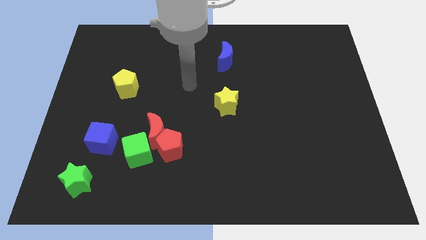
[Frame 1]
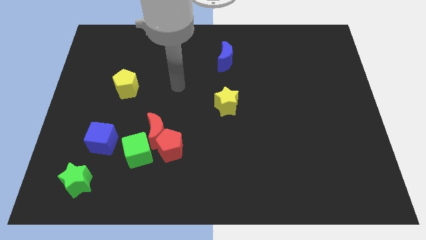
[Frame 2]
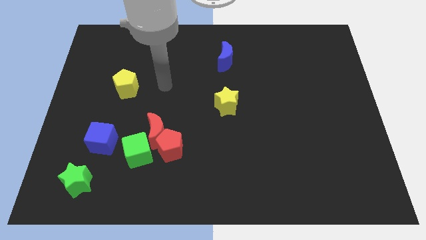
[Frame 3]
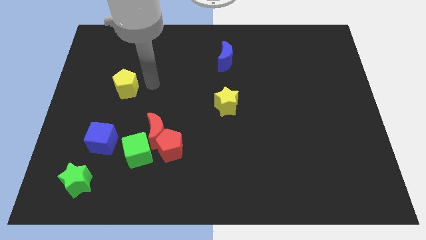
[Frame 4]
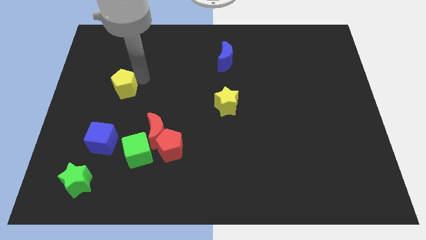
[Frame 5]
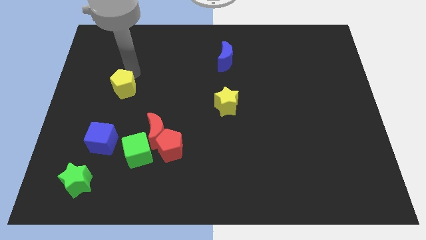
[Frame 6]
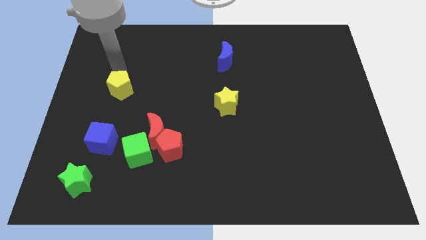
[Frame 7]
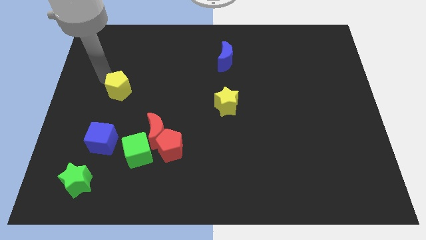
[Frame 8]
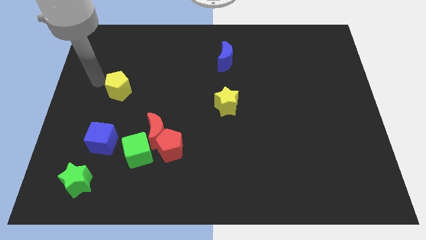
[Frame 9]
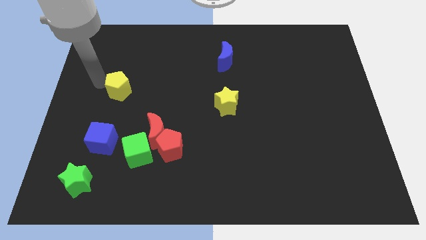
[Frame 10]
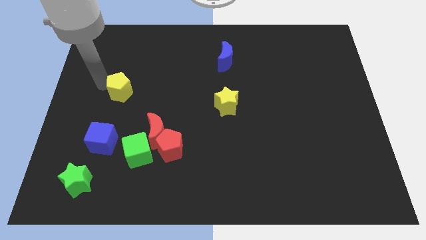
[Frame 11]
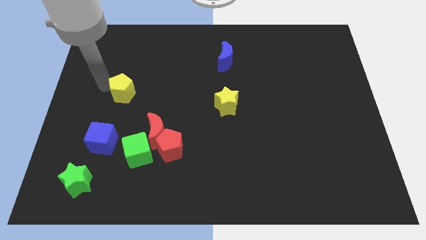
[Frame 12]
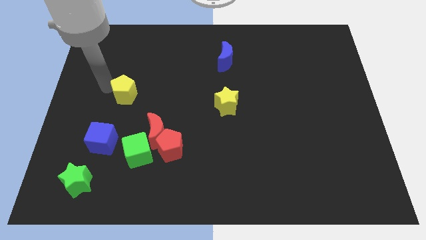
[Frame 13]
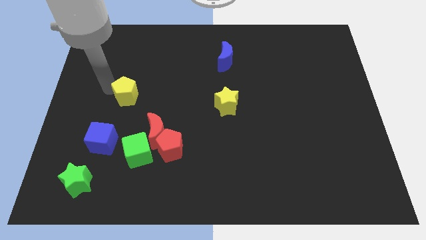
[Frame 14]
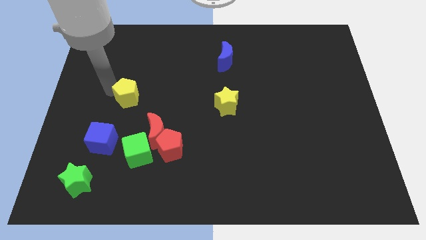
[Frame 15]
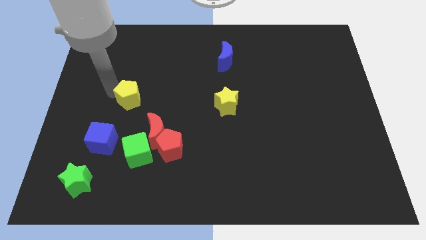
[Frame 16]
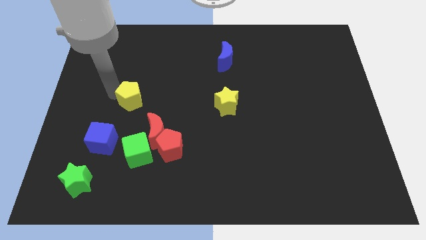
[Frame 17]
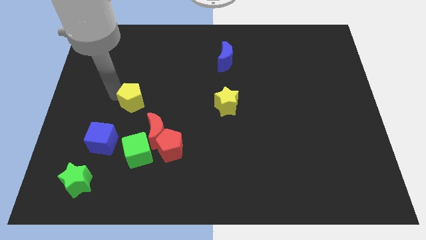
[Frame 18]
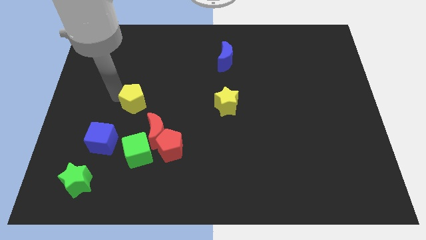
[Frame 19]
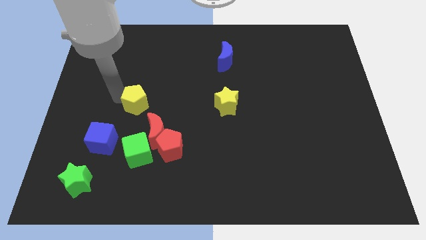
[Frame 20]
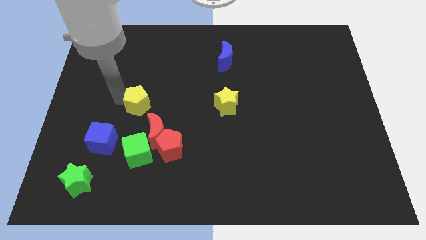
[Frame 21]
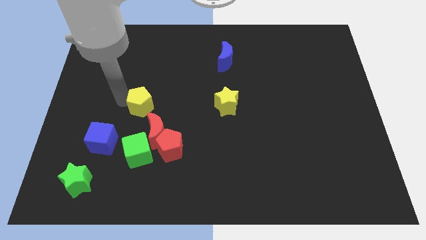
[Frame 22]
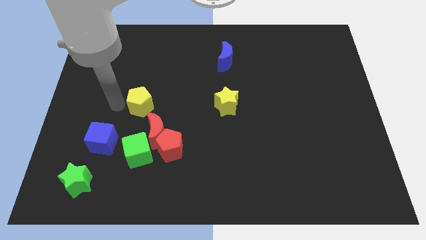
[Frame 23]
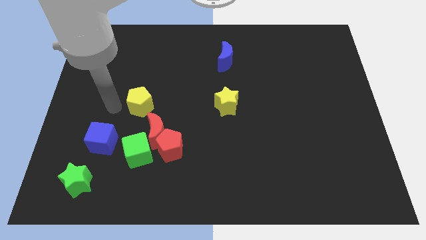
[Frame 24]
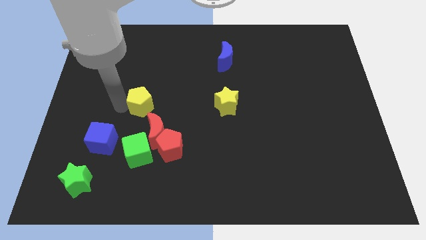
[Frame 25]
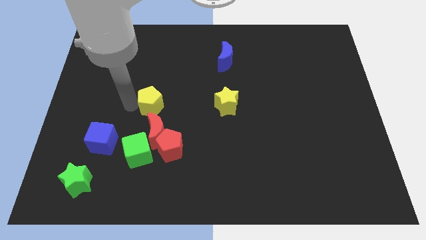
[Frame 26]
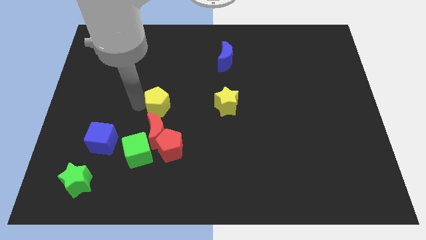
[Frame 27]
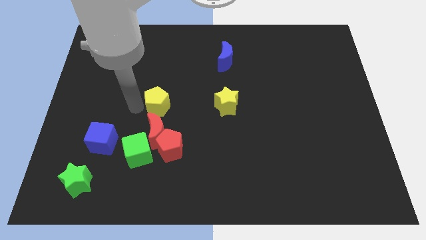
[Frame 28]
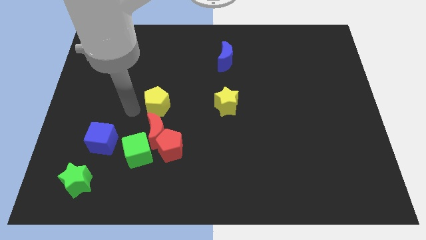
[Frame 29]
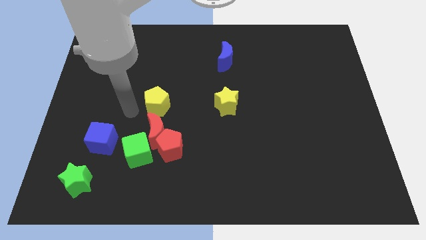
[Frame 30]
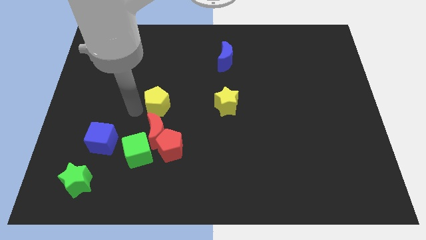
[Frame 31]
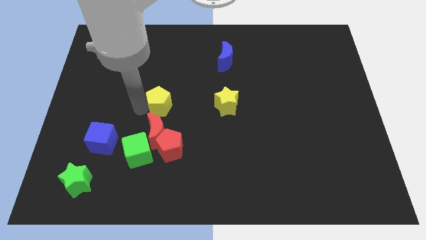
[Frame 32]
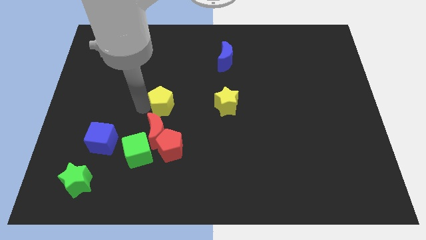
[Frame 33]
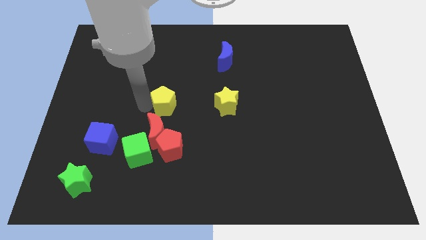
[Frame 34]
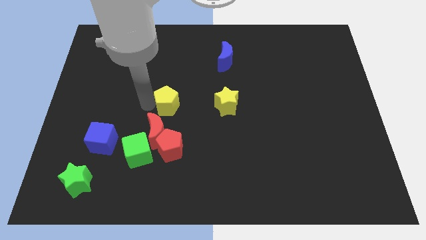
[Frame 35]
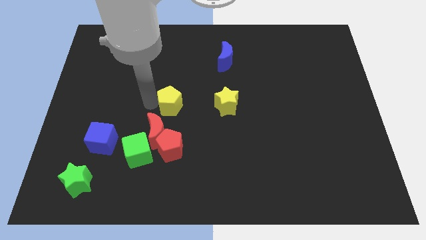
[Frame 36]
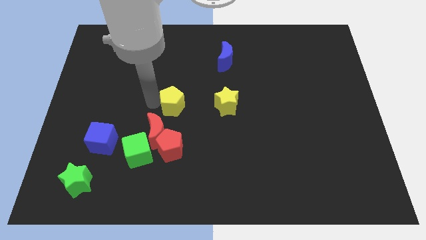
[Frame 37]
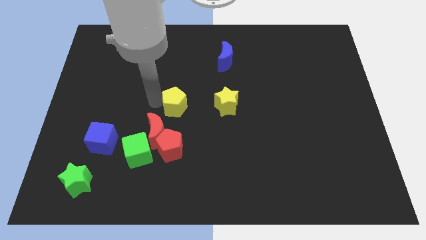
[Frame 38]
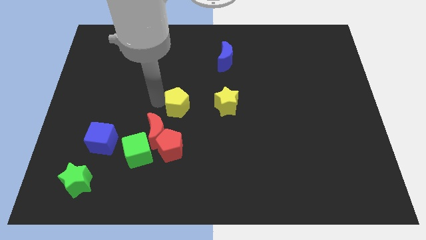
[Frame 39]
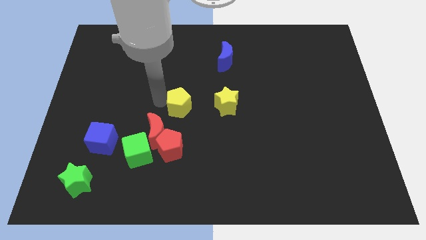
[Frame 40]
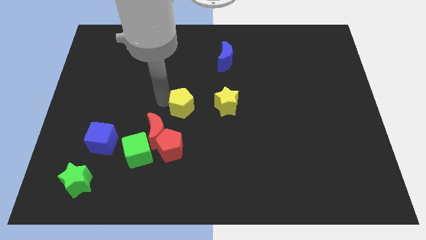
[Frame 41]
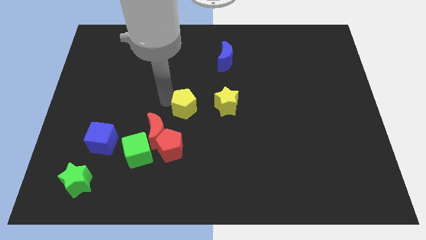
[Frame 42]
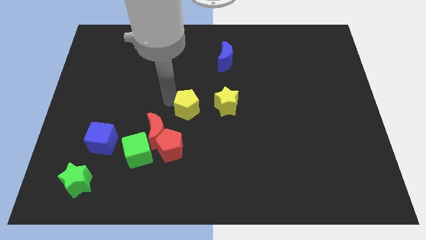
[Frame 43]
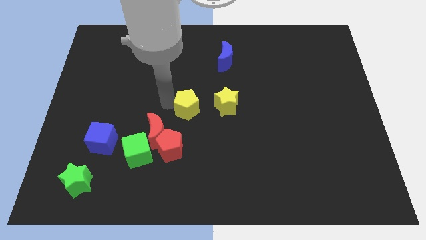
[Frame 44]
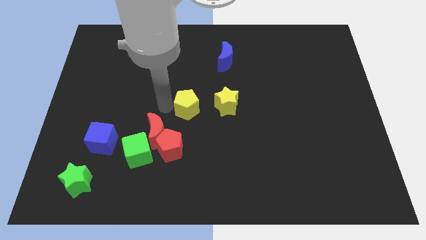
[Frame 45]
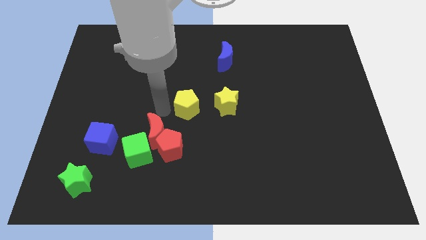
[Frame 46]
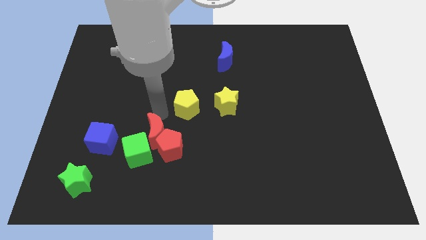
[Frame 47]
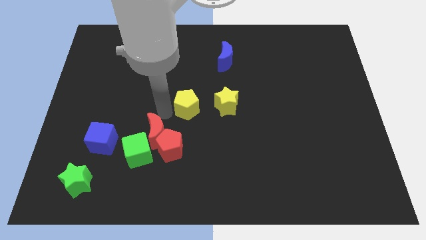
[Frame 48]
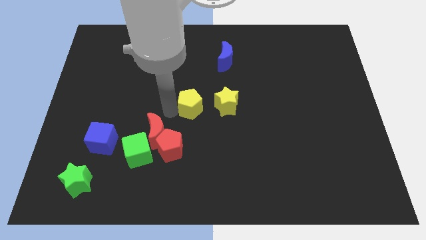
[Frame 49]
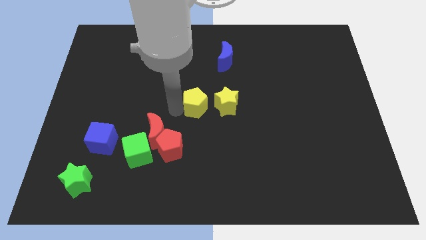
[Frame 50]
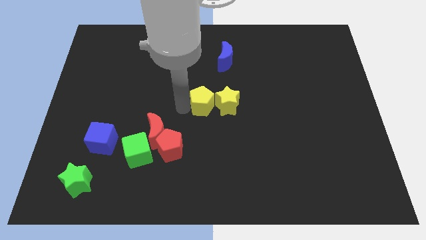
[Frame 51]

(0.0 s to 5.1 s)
put the yellow pentagon close to the yellow star

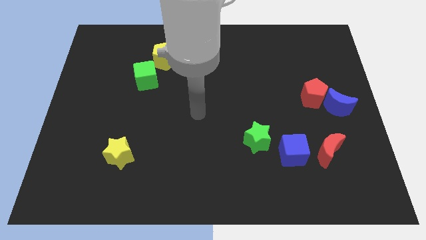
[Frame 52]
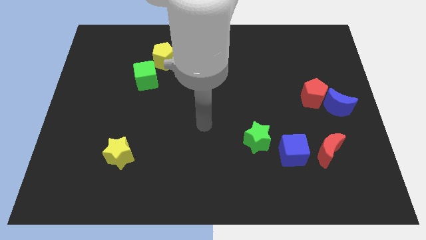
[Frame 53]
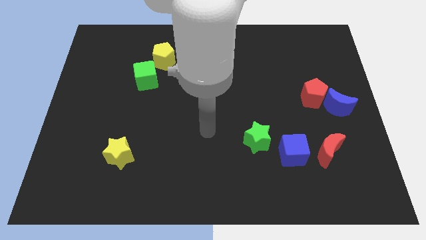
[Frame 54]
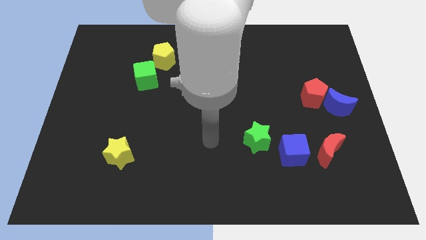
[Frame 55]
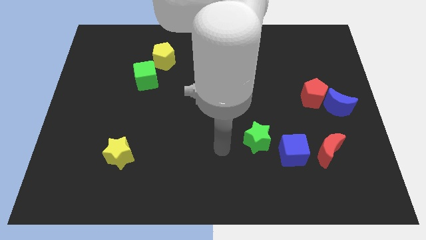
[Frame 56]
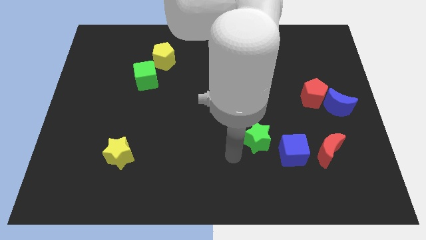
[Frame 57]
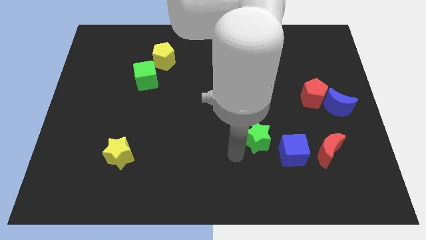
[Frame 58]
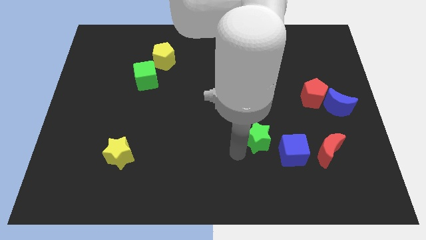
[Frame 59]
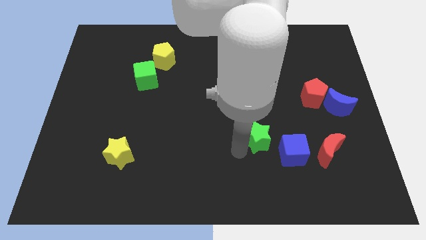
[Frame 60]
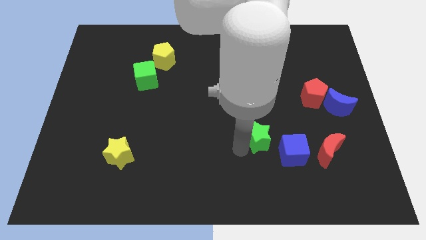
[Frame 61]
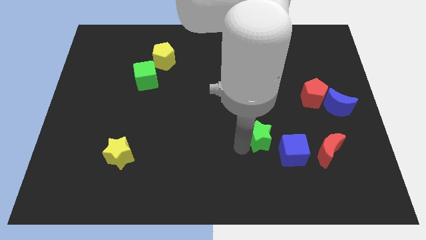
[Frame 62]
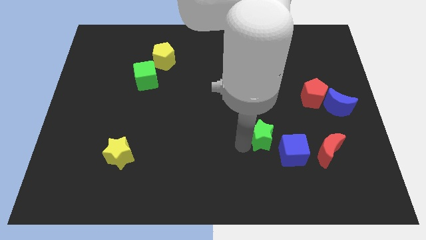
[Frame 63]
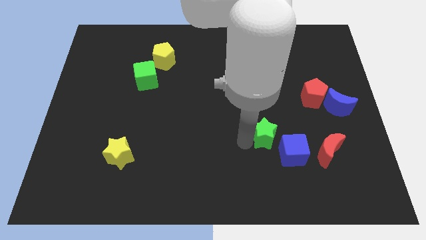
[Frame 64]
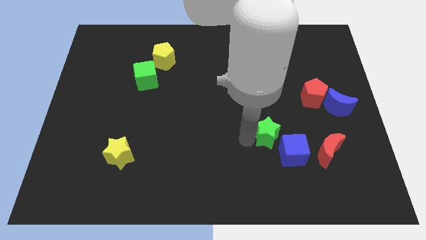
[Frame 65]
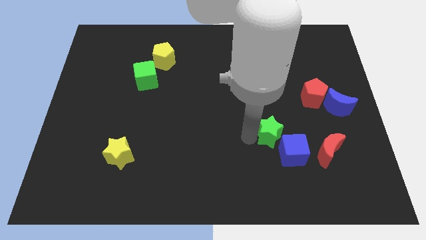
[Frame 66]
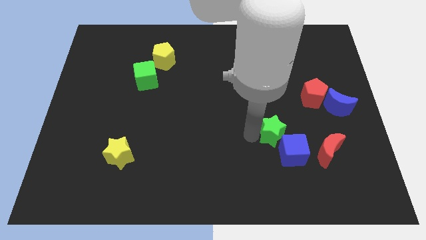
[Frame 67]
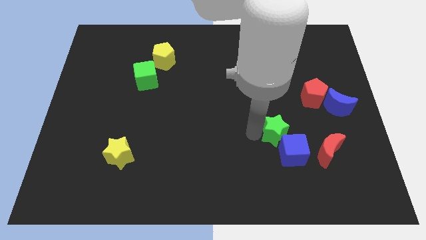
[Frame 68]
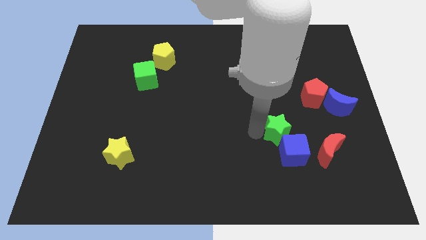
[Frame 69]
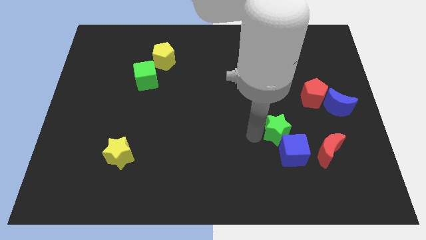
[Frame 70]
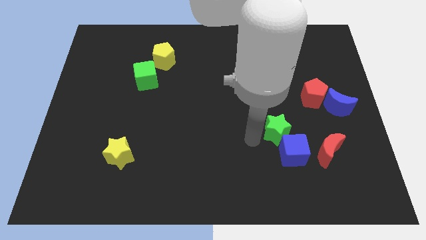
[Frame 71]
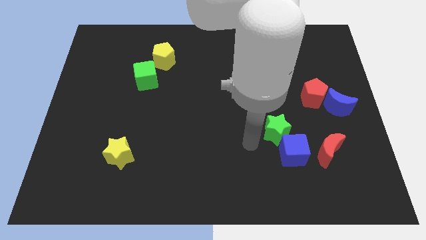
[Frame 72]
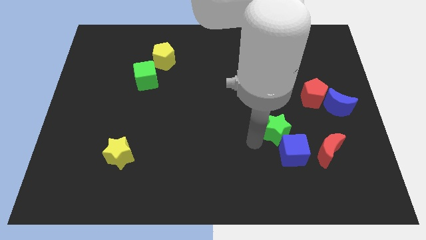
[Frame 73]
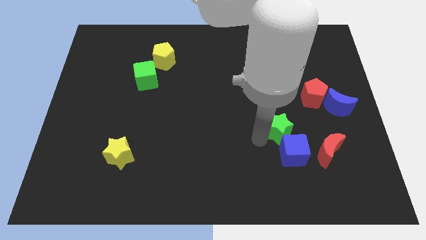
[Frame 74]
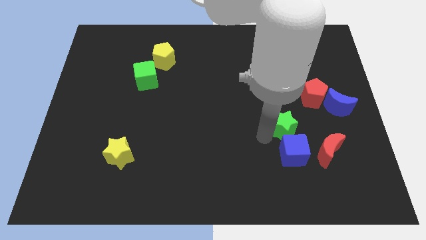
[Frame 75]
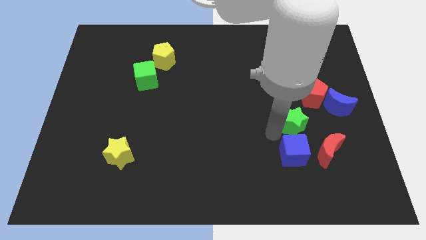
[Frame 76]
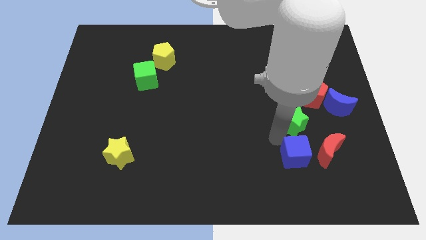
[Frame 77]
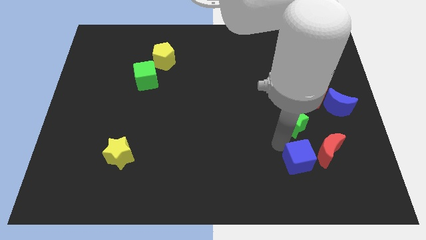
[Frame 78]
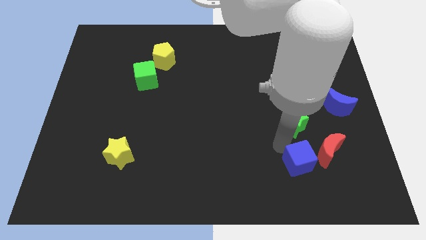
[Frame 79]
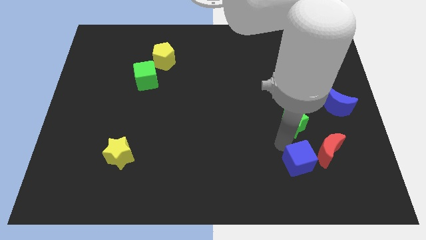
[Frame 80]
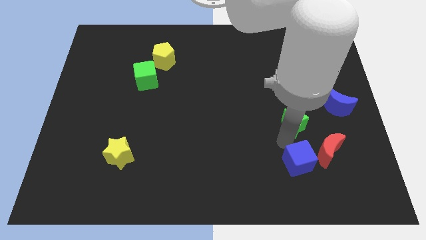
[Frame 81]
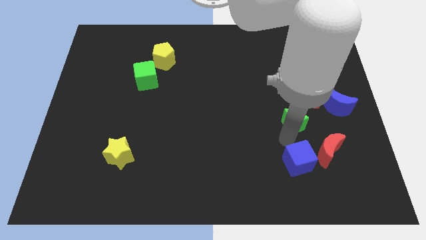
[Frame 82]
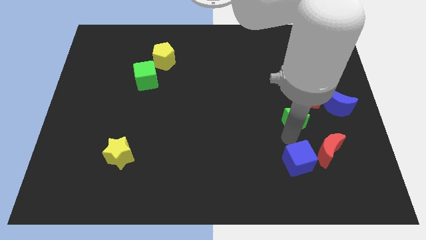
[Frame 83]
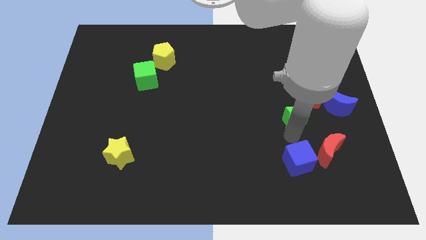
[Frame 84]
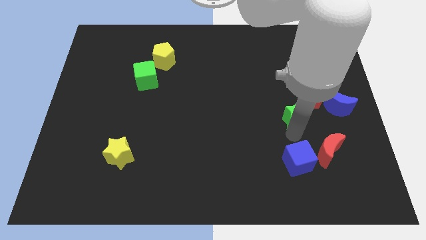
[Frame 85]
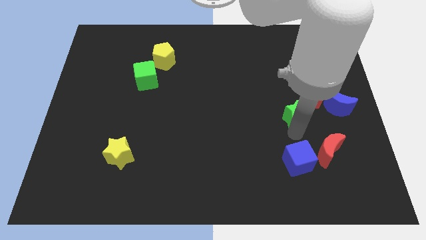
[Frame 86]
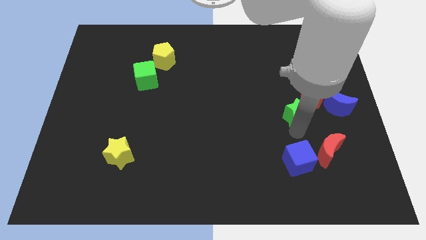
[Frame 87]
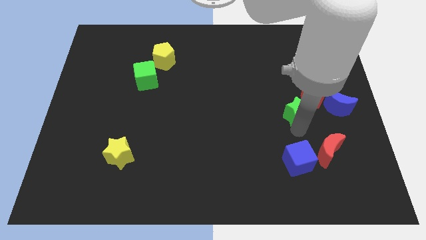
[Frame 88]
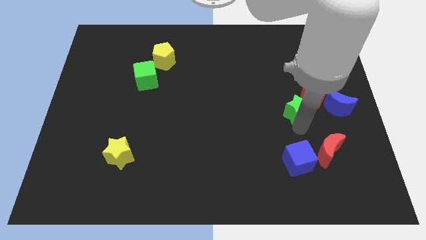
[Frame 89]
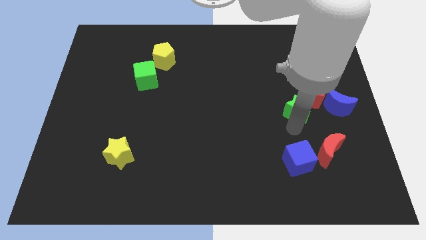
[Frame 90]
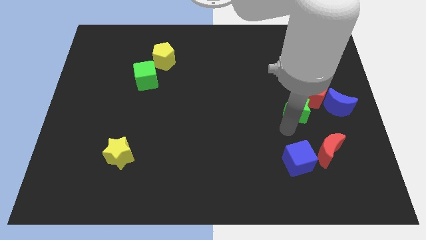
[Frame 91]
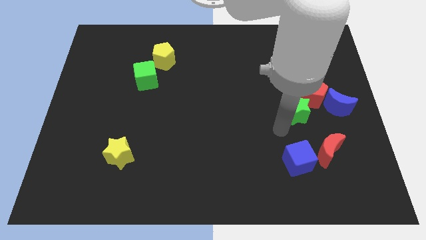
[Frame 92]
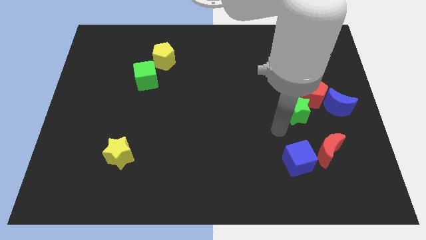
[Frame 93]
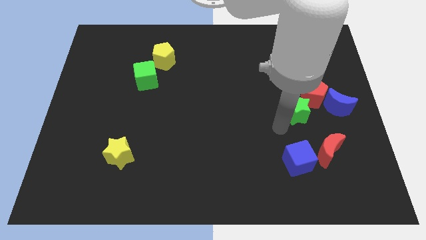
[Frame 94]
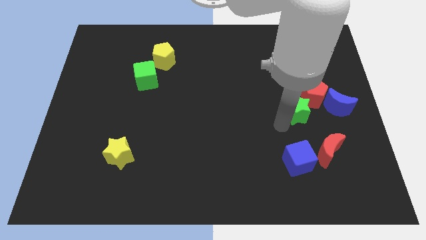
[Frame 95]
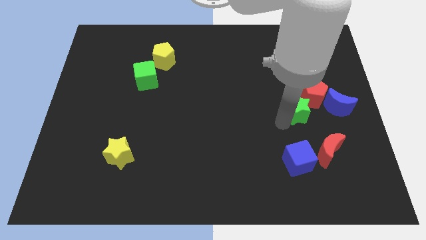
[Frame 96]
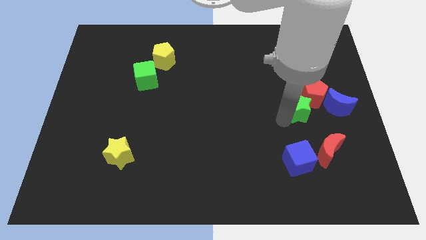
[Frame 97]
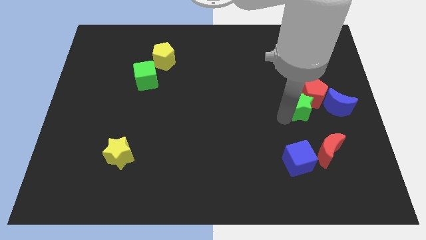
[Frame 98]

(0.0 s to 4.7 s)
push the green star next to the red pentagon
